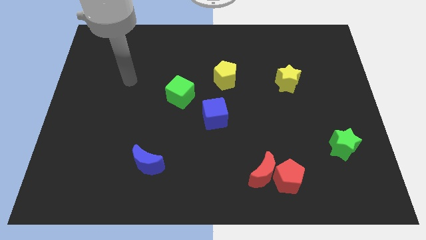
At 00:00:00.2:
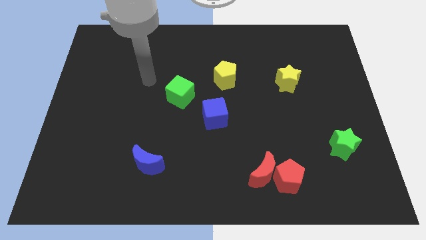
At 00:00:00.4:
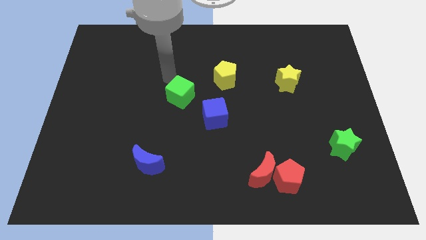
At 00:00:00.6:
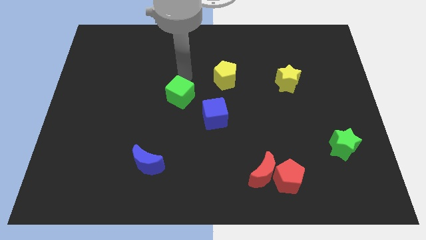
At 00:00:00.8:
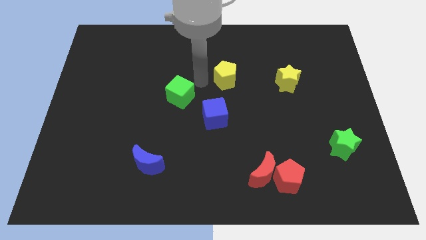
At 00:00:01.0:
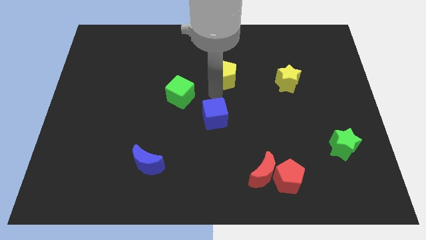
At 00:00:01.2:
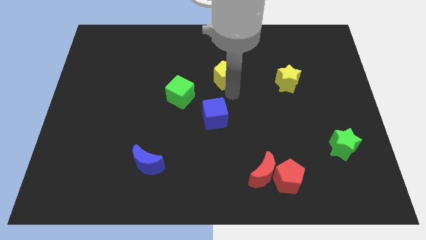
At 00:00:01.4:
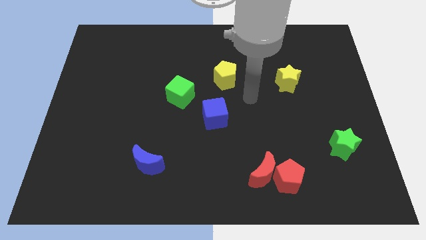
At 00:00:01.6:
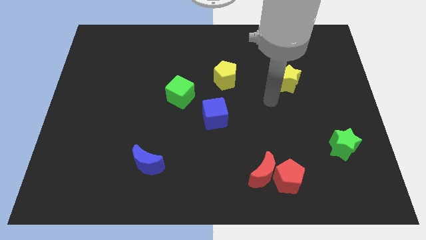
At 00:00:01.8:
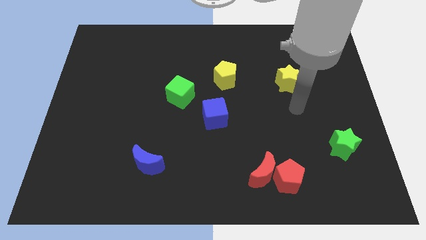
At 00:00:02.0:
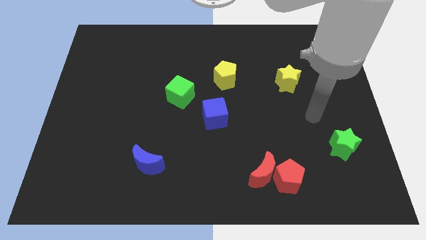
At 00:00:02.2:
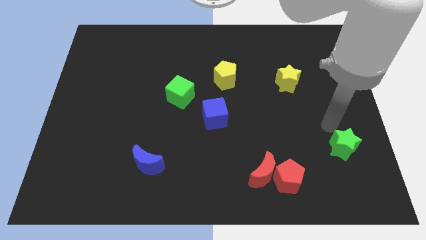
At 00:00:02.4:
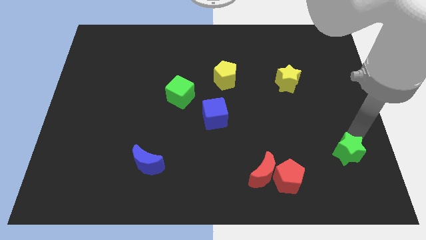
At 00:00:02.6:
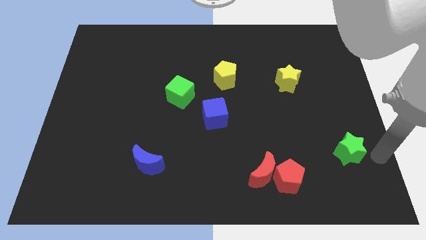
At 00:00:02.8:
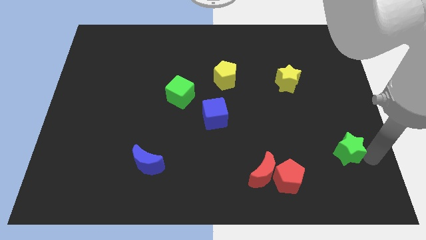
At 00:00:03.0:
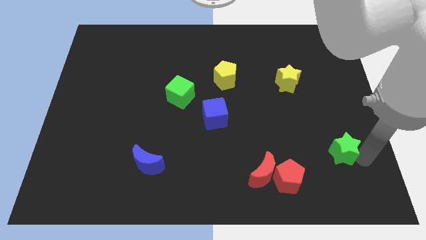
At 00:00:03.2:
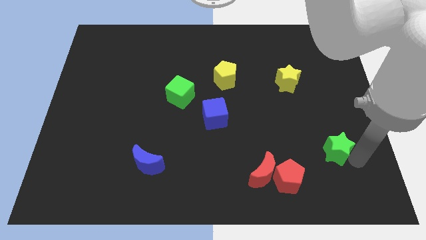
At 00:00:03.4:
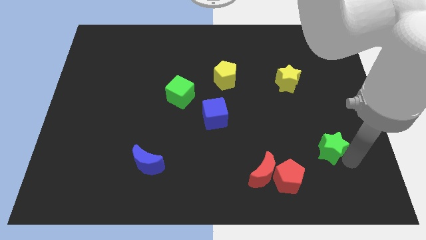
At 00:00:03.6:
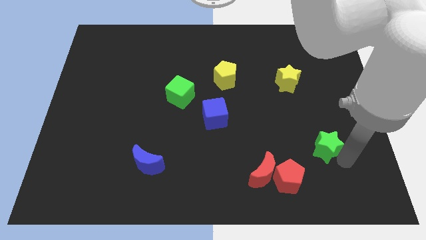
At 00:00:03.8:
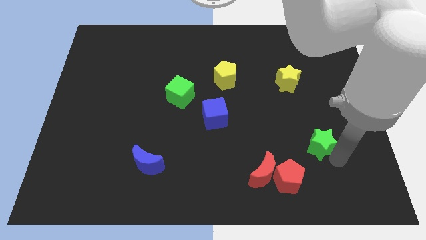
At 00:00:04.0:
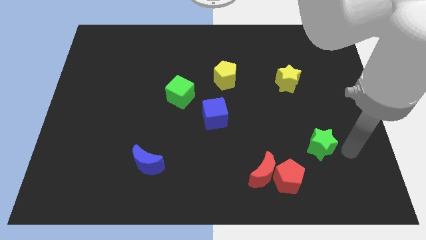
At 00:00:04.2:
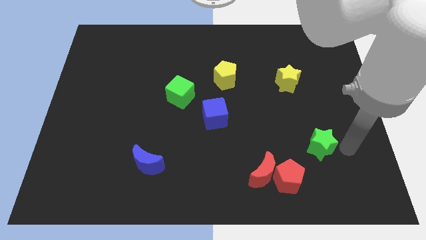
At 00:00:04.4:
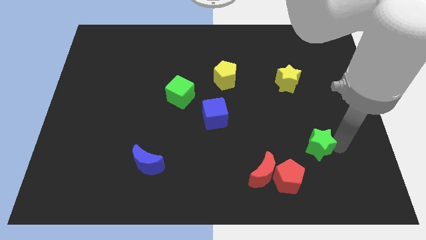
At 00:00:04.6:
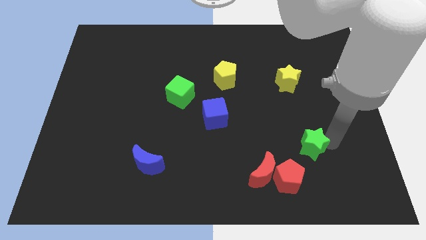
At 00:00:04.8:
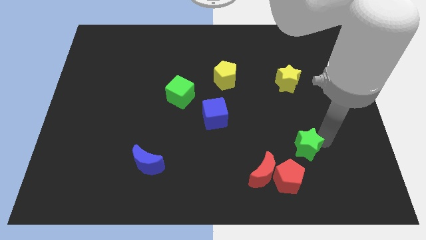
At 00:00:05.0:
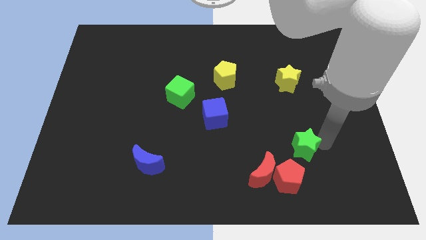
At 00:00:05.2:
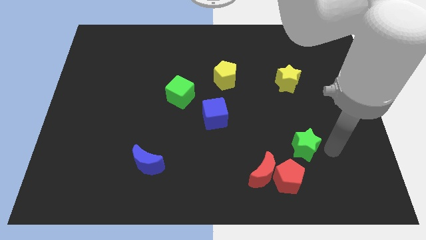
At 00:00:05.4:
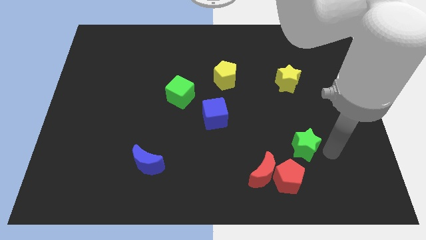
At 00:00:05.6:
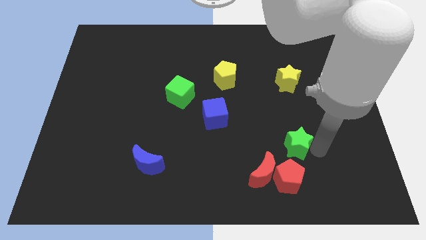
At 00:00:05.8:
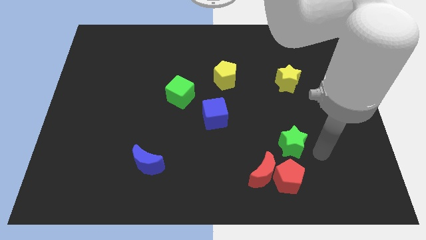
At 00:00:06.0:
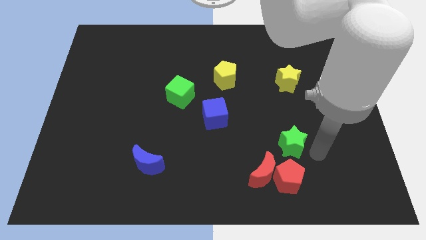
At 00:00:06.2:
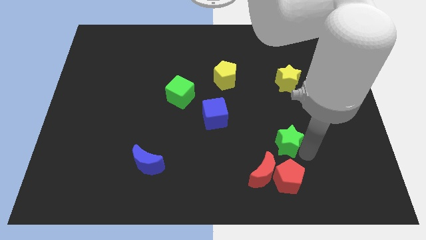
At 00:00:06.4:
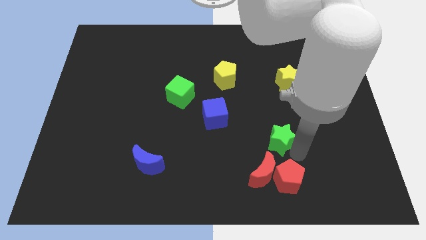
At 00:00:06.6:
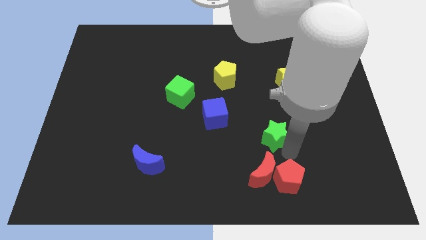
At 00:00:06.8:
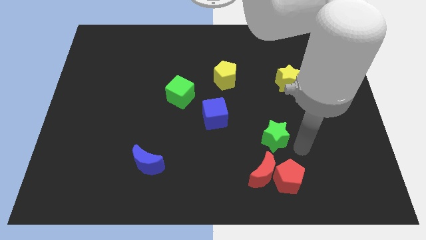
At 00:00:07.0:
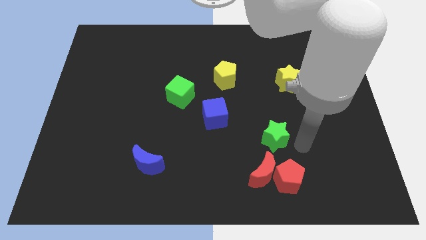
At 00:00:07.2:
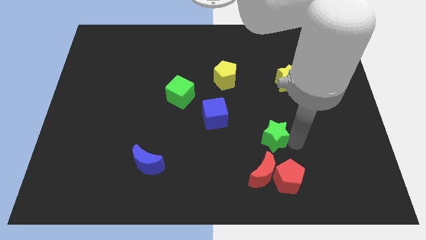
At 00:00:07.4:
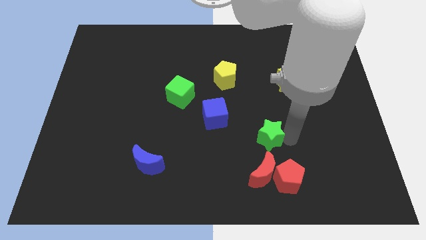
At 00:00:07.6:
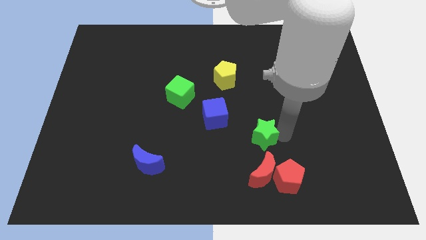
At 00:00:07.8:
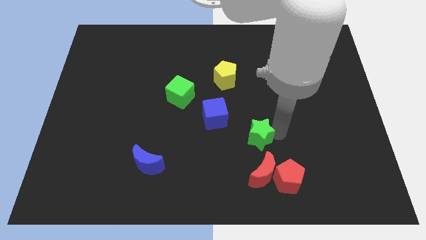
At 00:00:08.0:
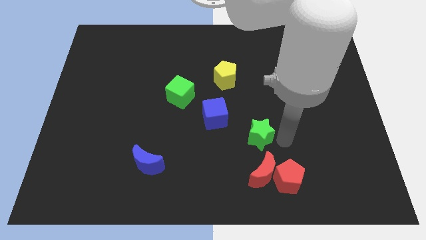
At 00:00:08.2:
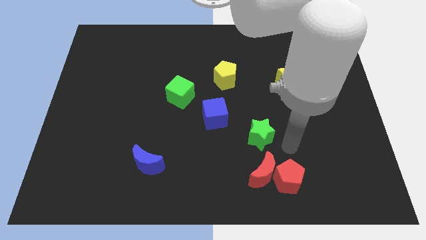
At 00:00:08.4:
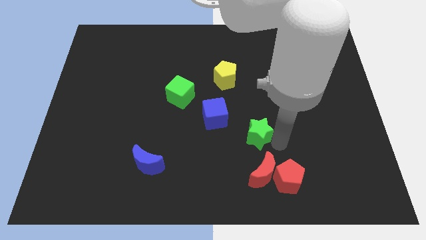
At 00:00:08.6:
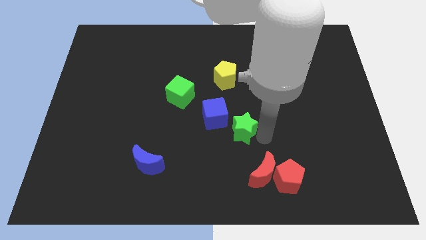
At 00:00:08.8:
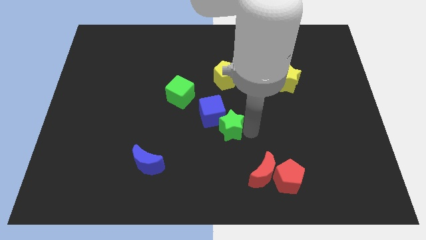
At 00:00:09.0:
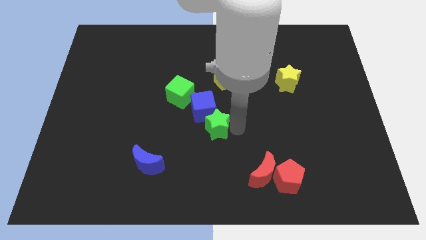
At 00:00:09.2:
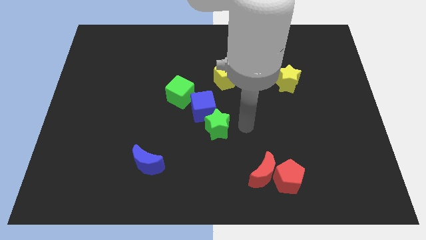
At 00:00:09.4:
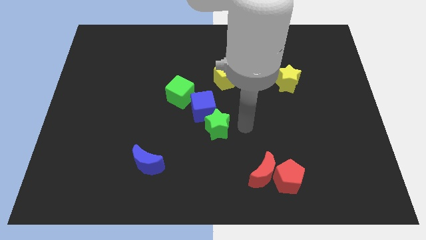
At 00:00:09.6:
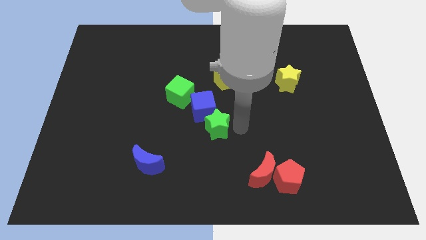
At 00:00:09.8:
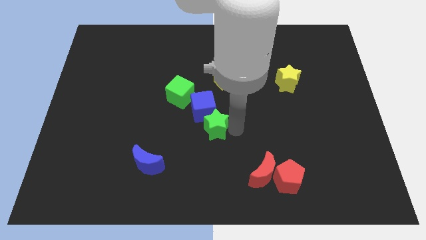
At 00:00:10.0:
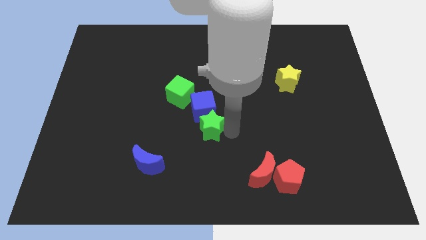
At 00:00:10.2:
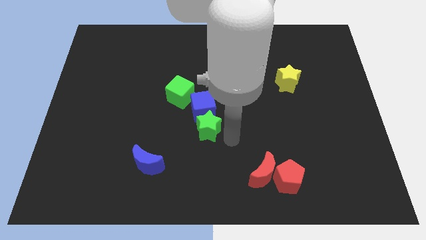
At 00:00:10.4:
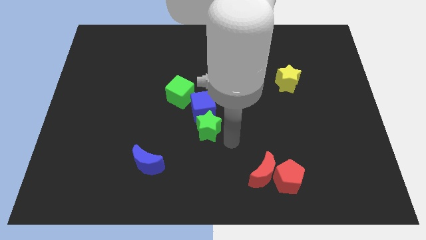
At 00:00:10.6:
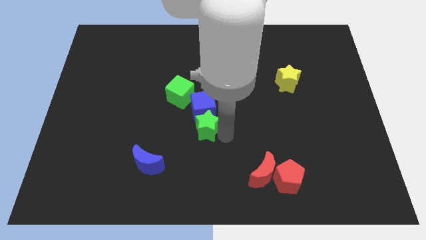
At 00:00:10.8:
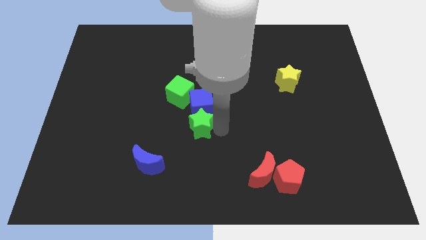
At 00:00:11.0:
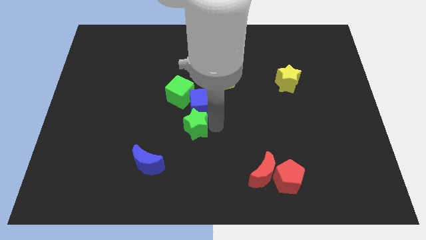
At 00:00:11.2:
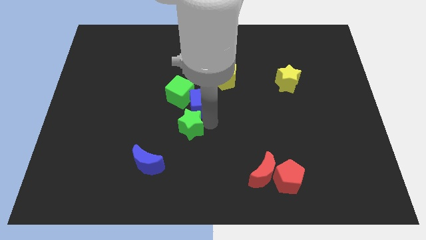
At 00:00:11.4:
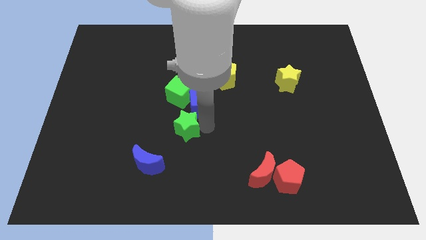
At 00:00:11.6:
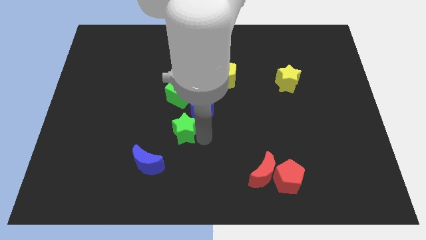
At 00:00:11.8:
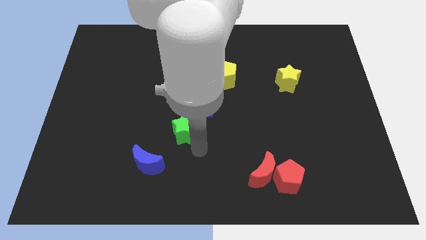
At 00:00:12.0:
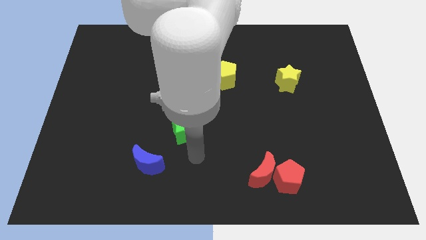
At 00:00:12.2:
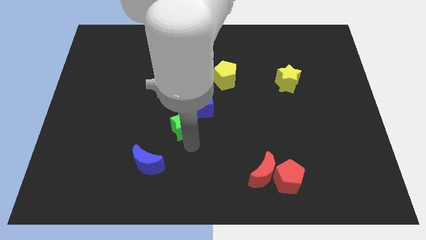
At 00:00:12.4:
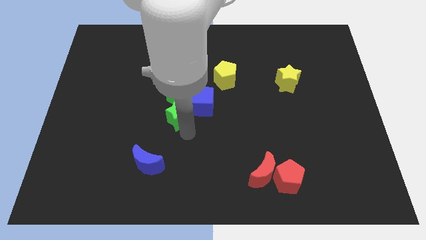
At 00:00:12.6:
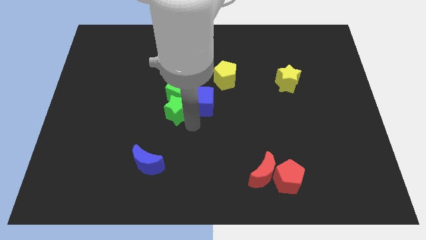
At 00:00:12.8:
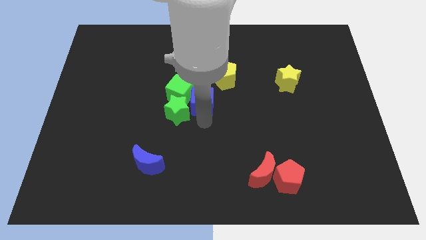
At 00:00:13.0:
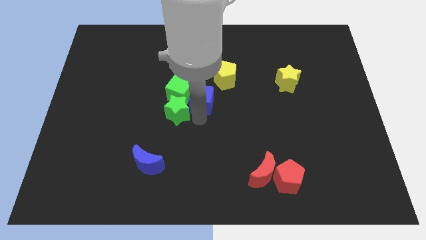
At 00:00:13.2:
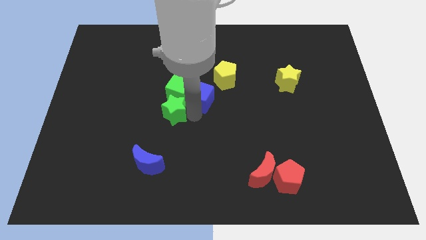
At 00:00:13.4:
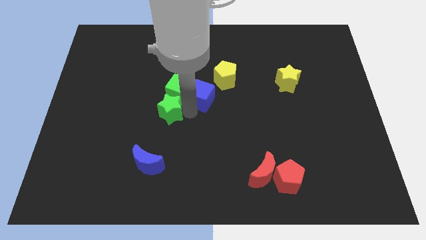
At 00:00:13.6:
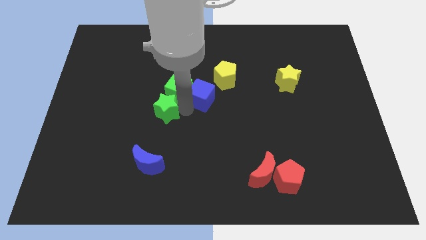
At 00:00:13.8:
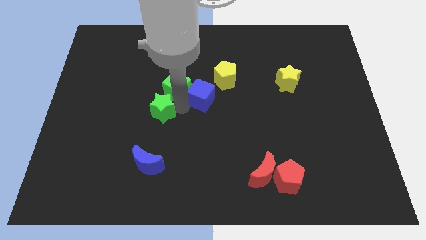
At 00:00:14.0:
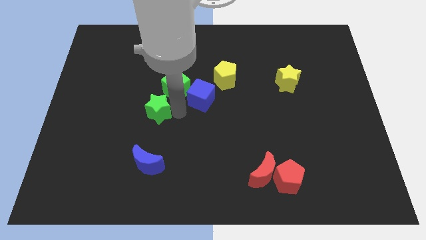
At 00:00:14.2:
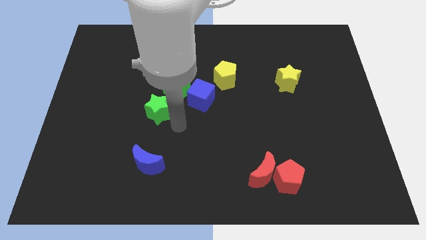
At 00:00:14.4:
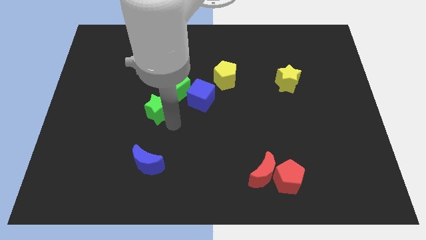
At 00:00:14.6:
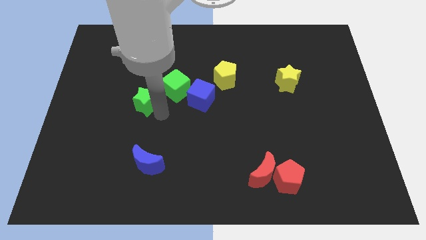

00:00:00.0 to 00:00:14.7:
put the green star left of the green cube
